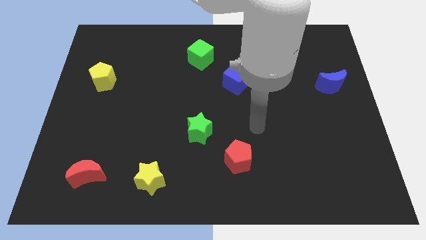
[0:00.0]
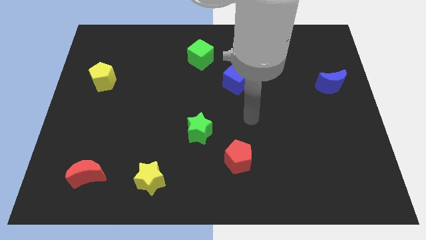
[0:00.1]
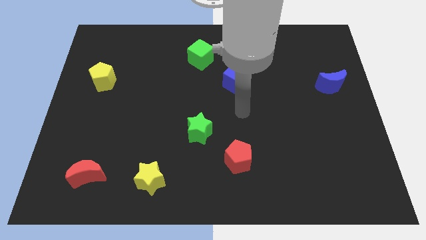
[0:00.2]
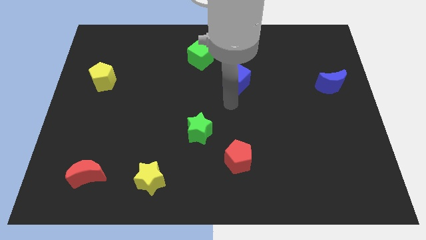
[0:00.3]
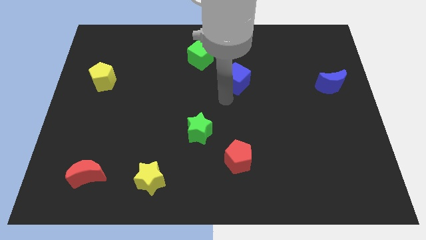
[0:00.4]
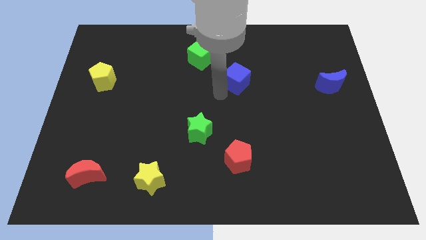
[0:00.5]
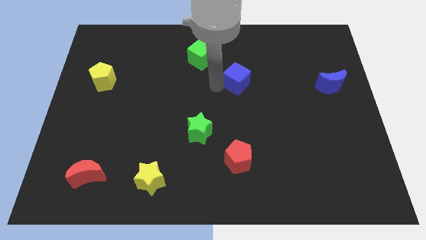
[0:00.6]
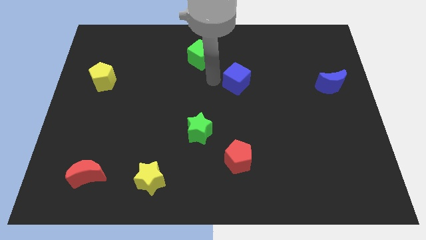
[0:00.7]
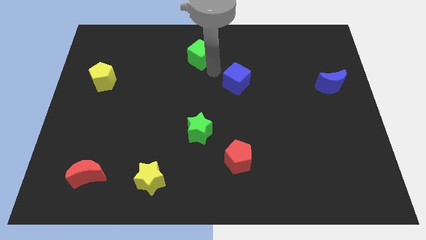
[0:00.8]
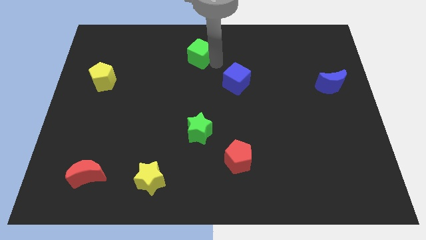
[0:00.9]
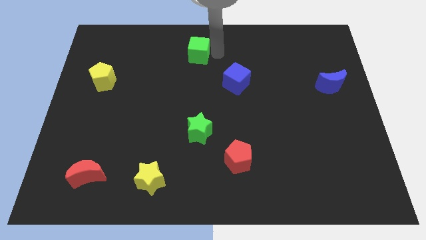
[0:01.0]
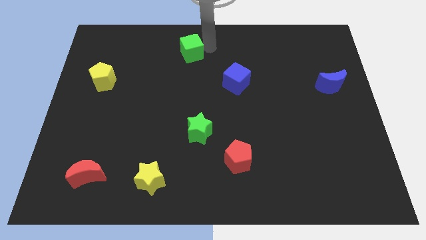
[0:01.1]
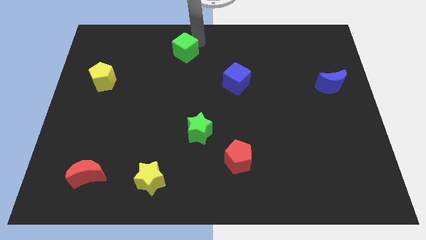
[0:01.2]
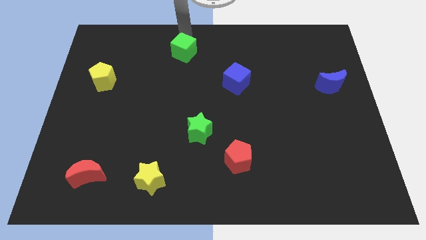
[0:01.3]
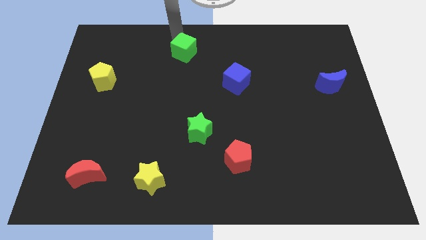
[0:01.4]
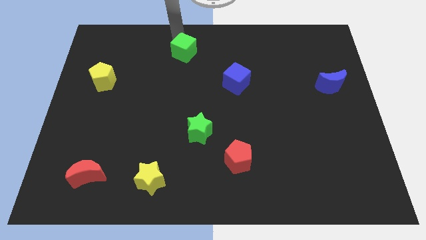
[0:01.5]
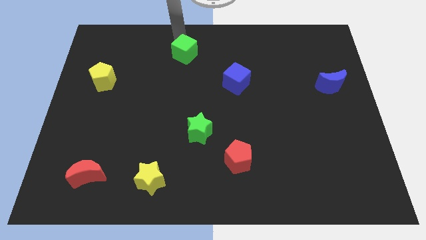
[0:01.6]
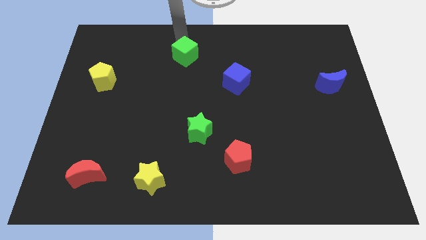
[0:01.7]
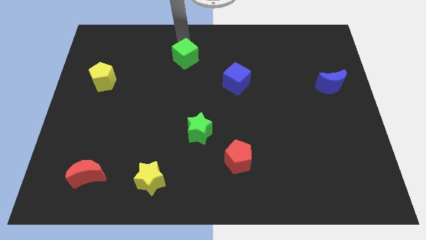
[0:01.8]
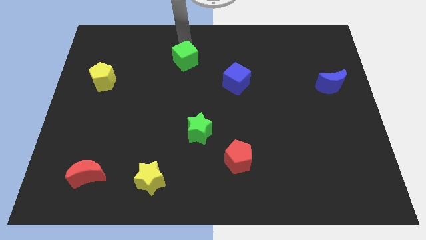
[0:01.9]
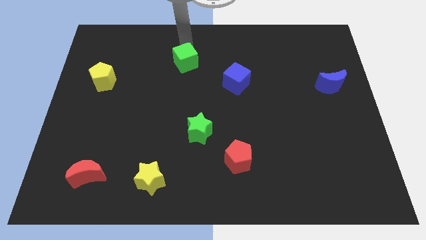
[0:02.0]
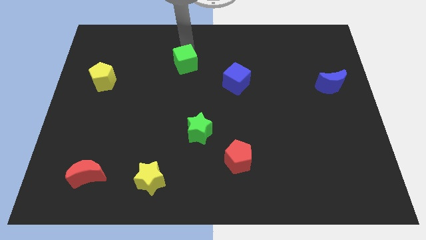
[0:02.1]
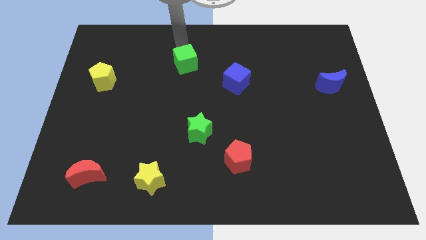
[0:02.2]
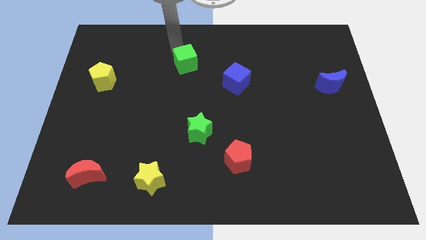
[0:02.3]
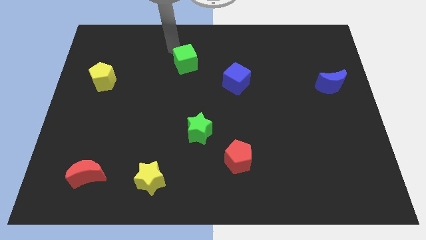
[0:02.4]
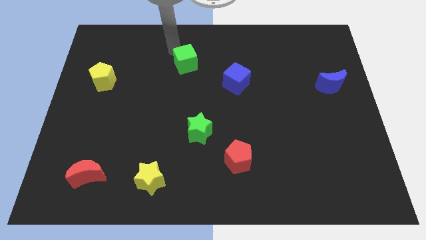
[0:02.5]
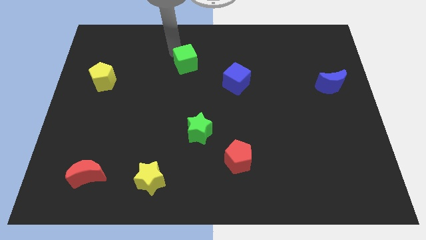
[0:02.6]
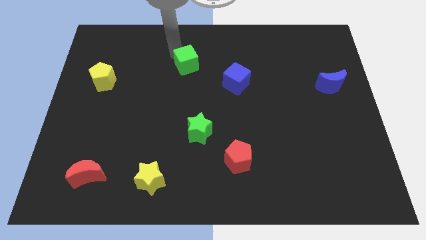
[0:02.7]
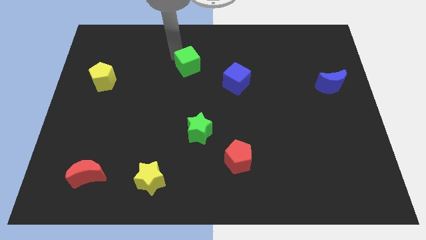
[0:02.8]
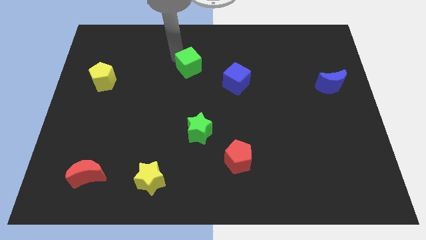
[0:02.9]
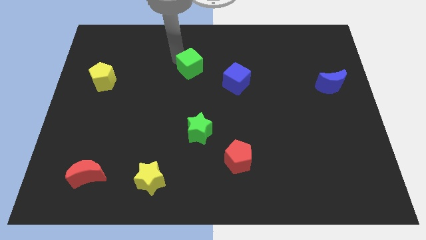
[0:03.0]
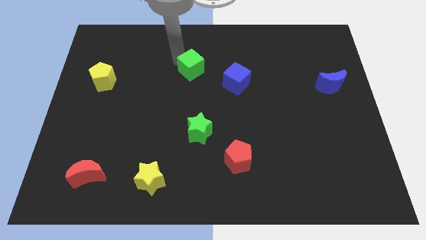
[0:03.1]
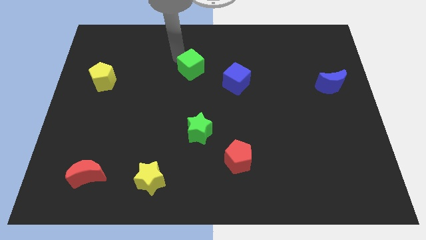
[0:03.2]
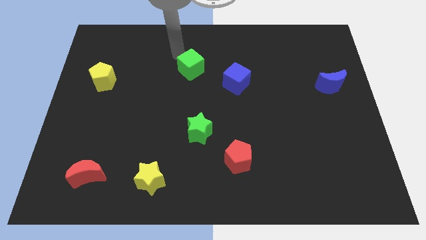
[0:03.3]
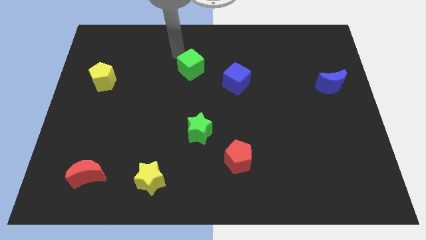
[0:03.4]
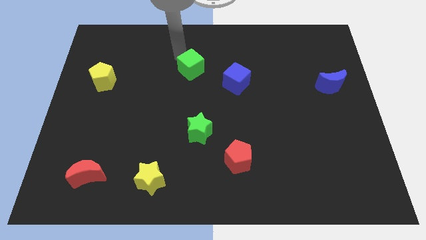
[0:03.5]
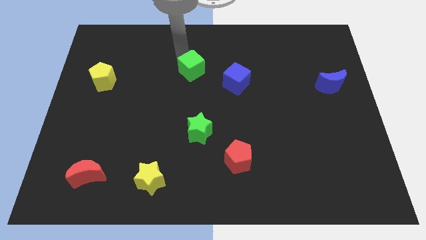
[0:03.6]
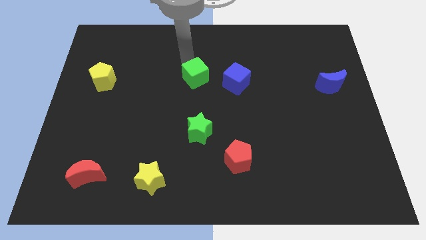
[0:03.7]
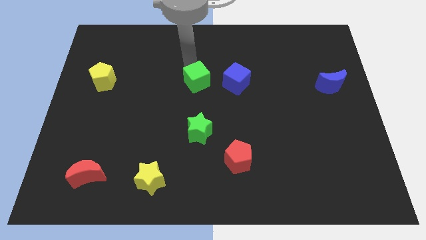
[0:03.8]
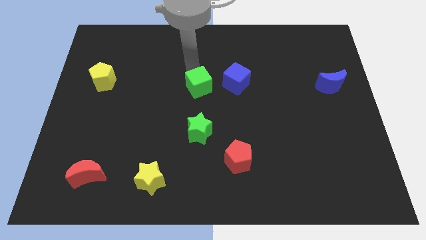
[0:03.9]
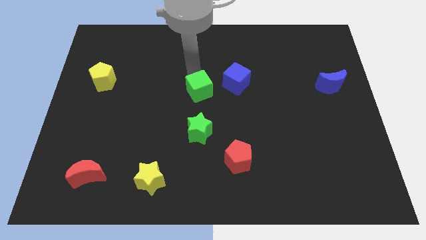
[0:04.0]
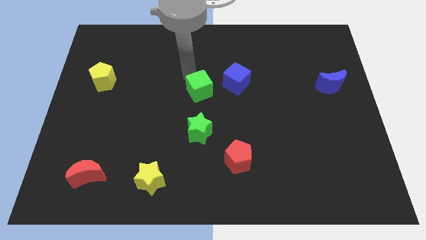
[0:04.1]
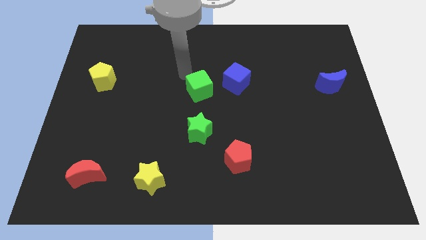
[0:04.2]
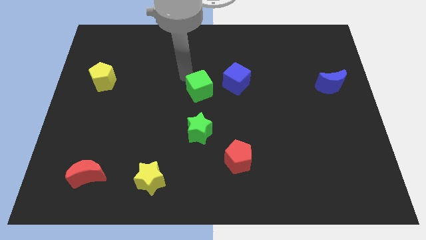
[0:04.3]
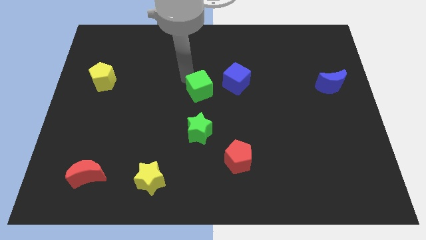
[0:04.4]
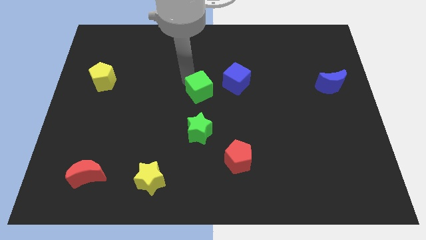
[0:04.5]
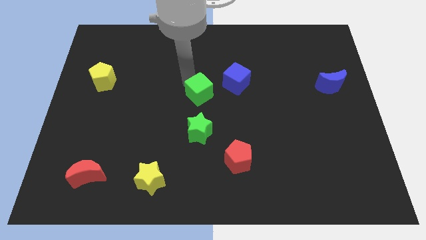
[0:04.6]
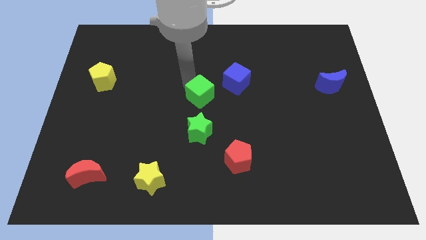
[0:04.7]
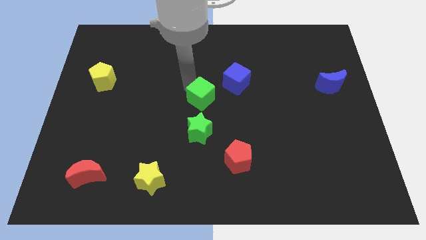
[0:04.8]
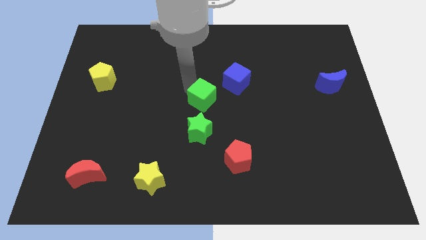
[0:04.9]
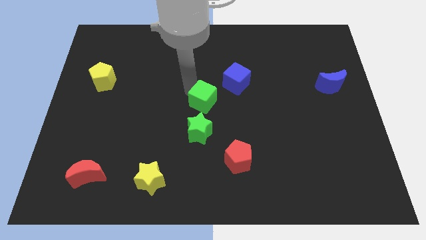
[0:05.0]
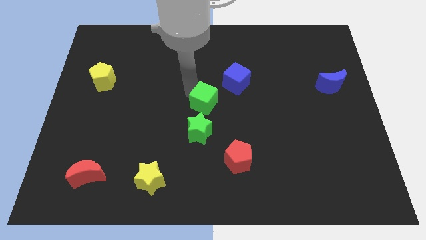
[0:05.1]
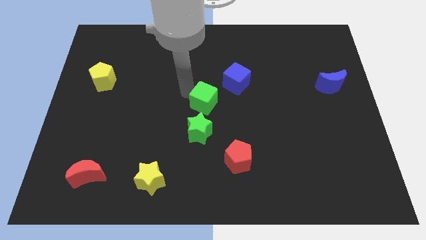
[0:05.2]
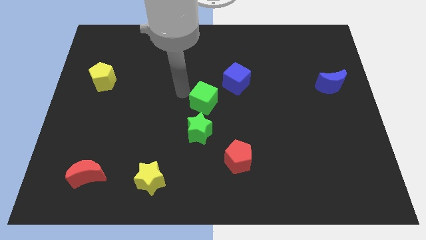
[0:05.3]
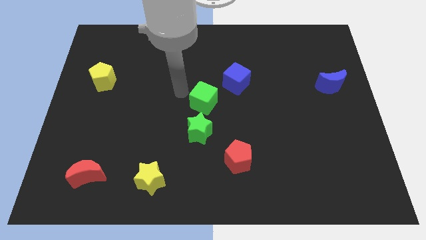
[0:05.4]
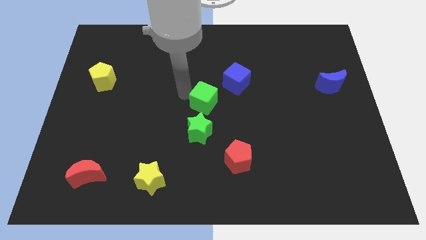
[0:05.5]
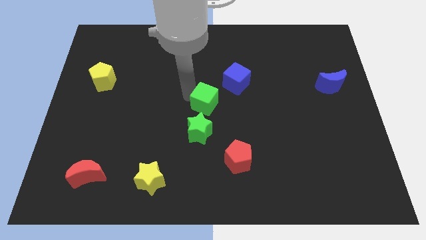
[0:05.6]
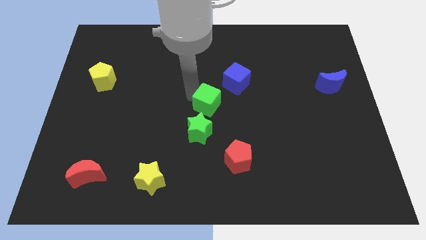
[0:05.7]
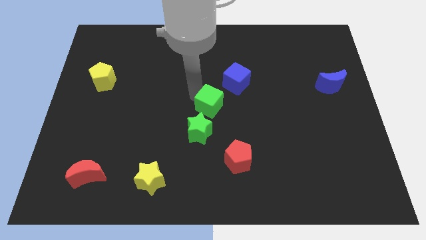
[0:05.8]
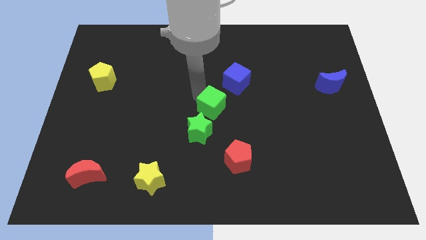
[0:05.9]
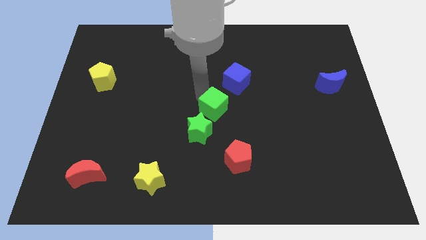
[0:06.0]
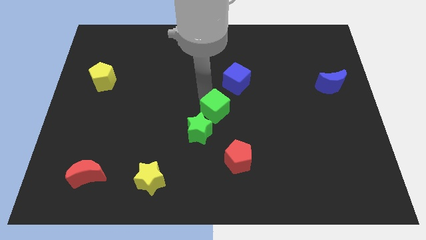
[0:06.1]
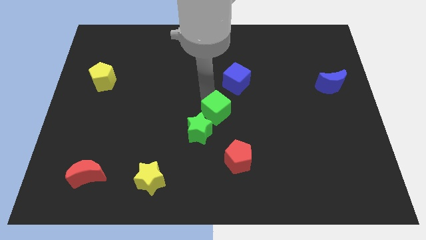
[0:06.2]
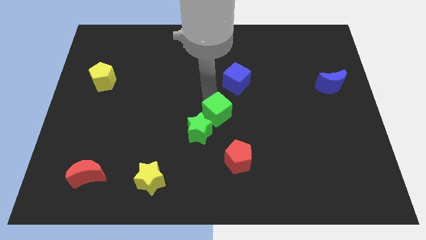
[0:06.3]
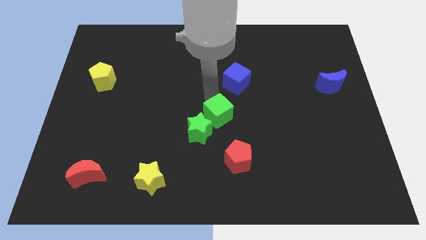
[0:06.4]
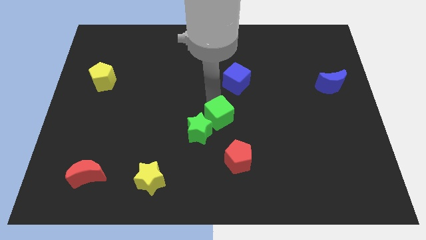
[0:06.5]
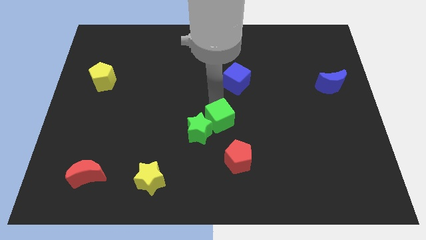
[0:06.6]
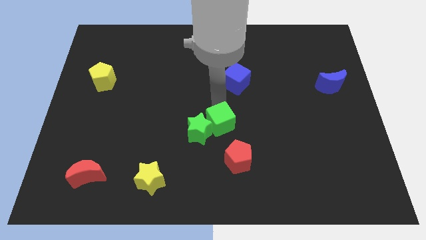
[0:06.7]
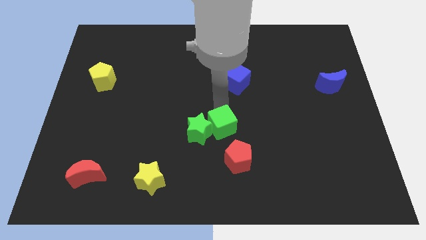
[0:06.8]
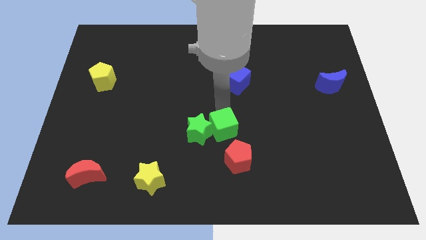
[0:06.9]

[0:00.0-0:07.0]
move the green cube diagonally down and to the right of the green star
